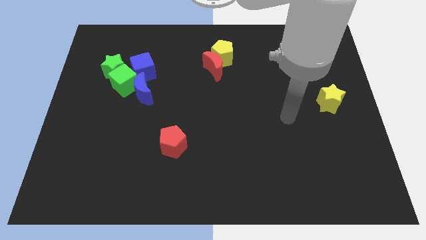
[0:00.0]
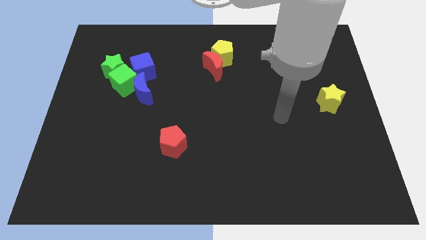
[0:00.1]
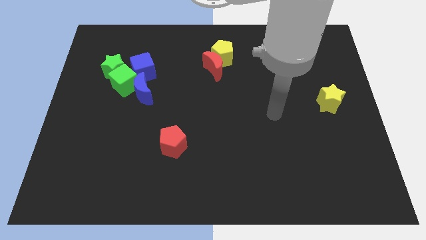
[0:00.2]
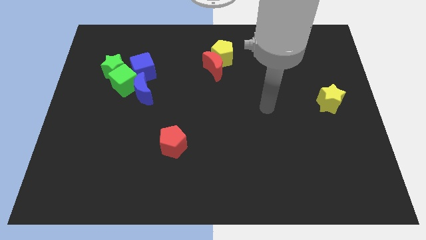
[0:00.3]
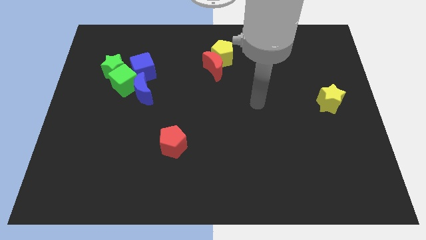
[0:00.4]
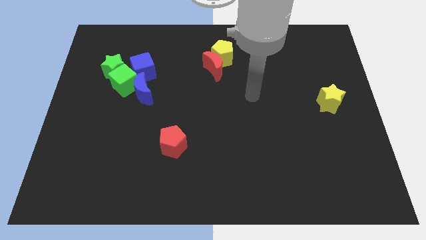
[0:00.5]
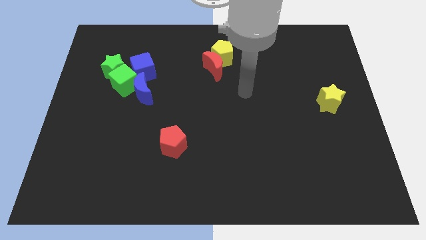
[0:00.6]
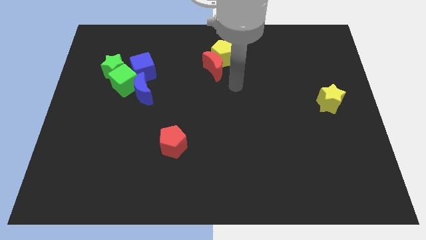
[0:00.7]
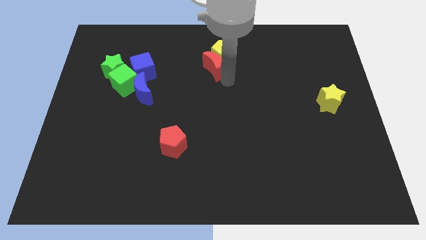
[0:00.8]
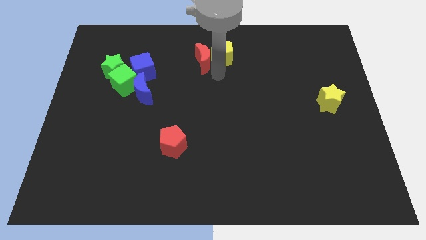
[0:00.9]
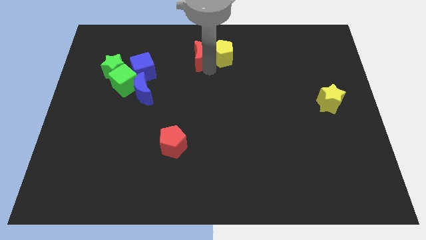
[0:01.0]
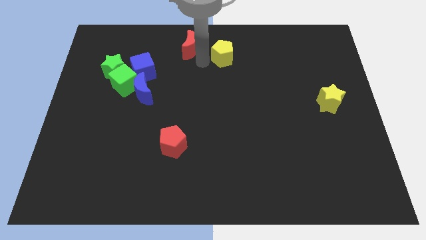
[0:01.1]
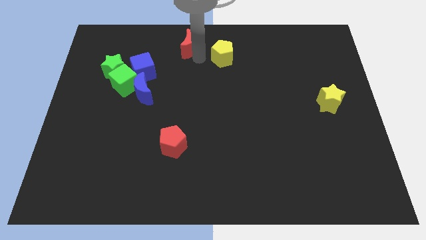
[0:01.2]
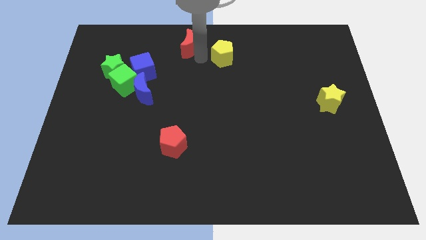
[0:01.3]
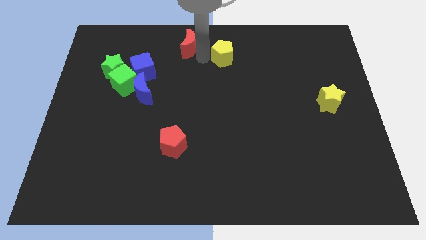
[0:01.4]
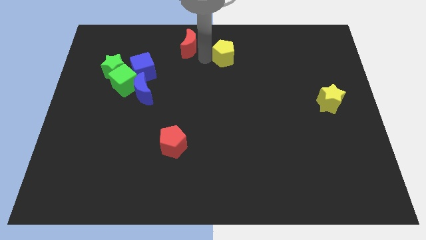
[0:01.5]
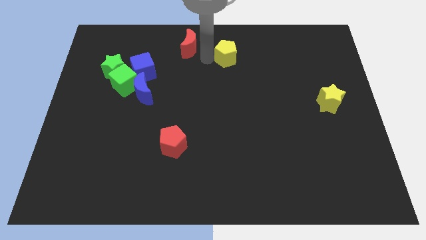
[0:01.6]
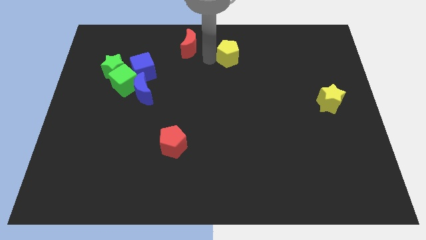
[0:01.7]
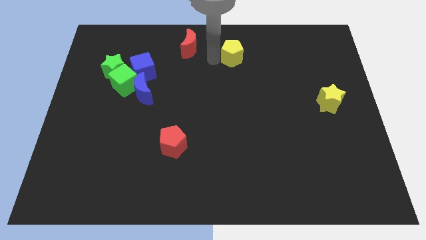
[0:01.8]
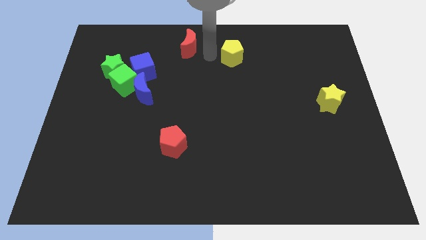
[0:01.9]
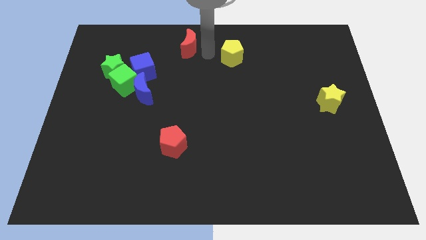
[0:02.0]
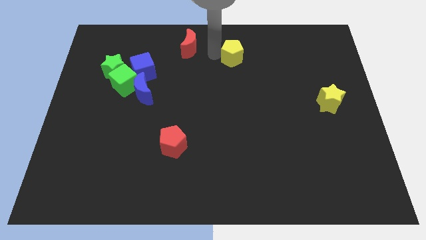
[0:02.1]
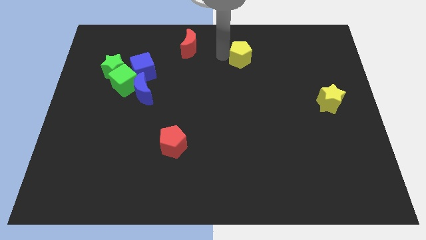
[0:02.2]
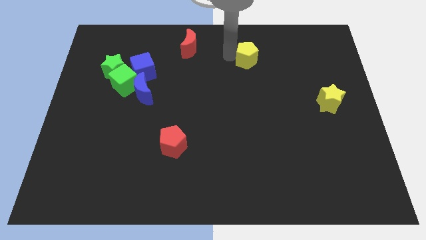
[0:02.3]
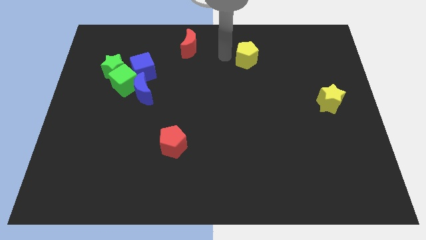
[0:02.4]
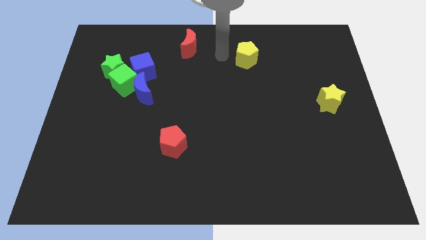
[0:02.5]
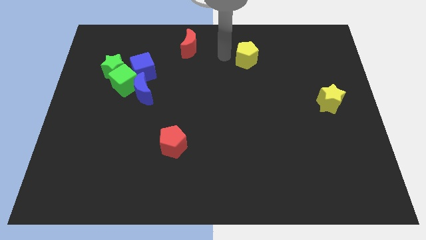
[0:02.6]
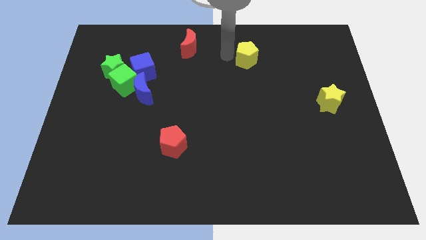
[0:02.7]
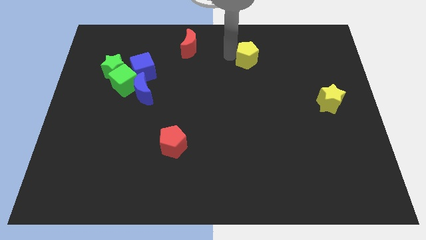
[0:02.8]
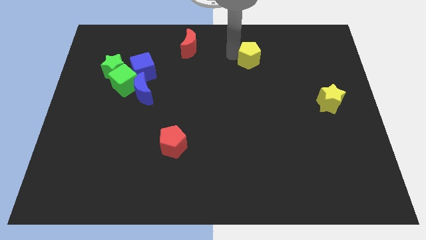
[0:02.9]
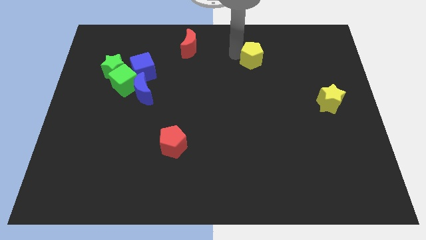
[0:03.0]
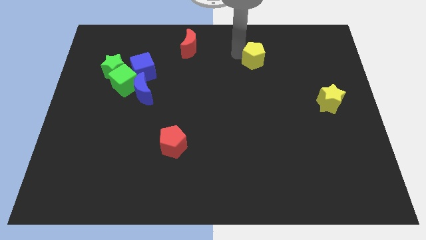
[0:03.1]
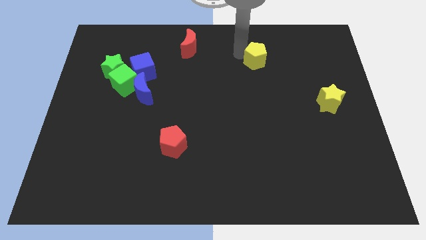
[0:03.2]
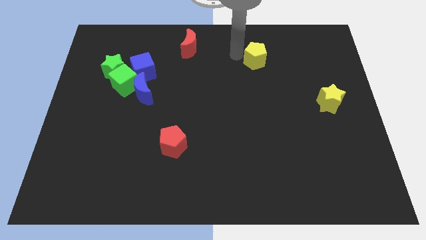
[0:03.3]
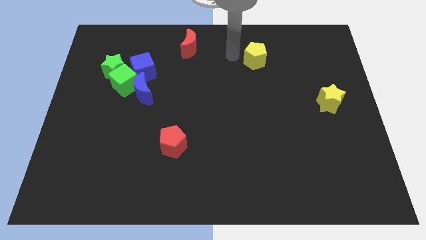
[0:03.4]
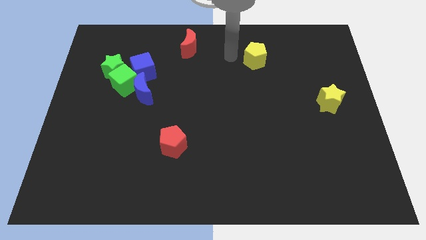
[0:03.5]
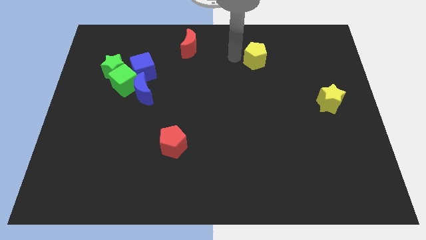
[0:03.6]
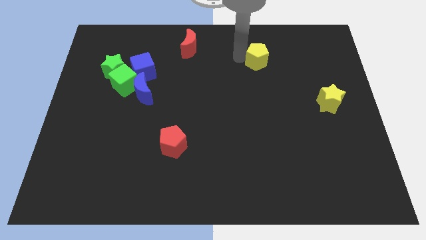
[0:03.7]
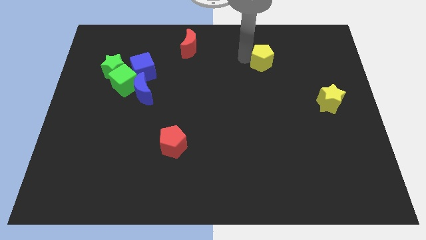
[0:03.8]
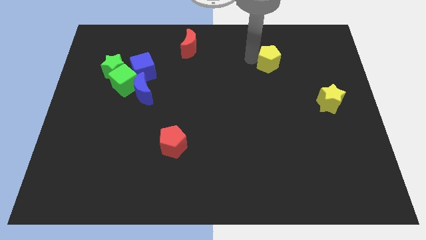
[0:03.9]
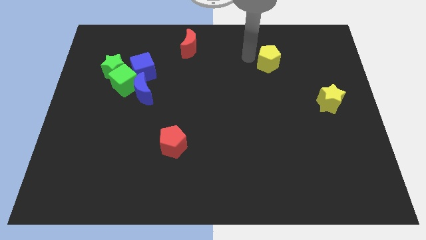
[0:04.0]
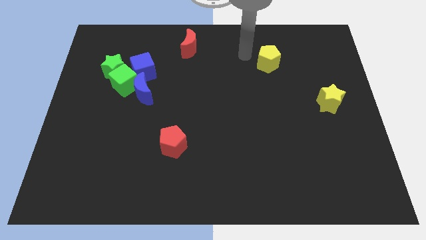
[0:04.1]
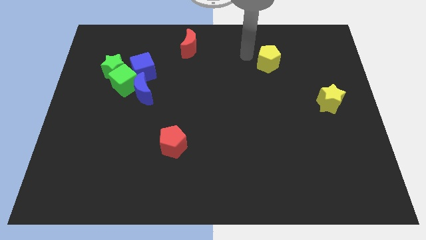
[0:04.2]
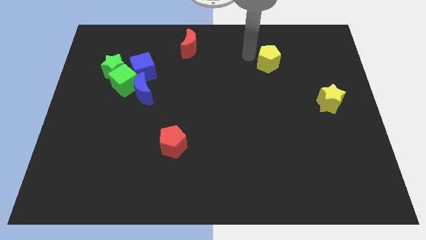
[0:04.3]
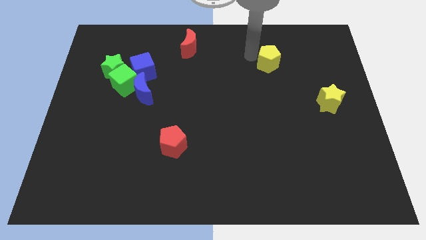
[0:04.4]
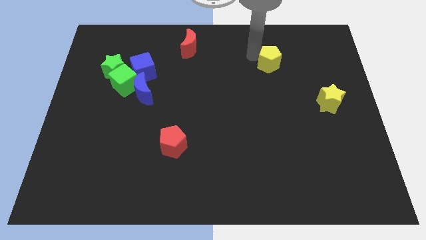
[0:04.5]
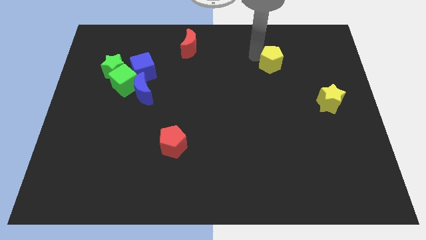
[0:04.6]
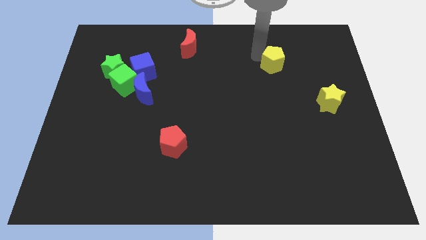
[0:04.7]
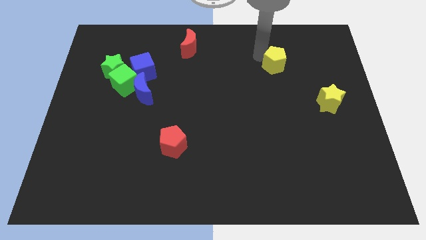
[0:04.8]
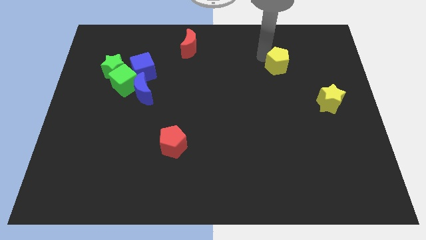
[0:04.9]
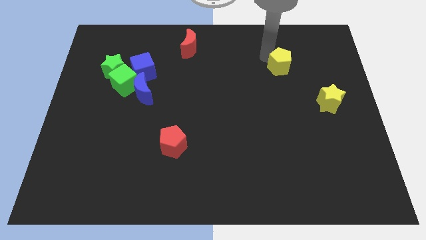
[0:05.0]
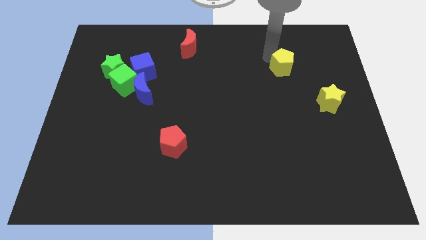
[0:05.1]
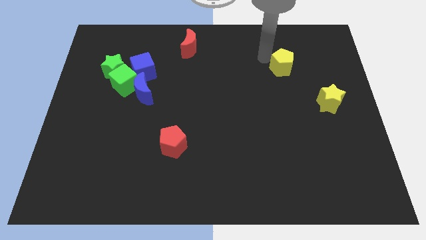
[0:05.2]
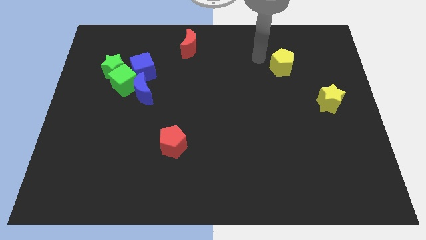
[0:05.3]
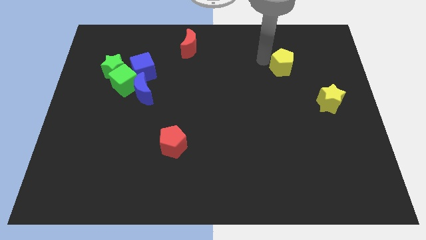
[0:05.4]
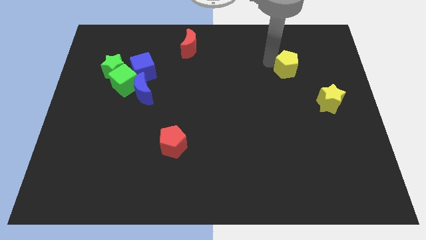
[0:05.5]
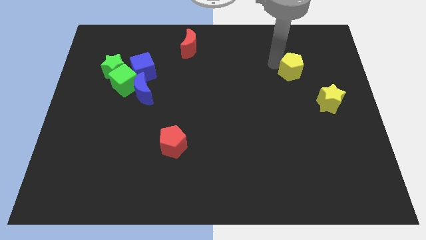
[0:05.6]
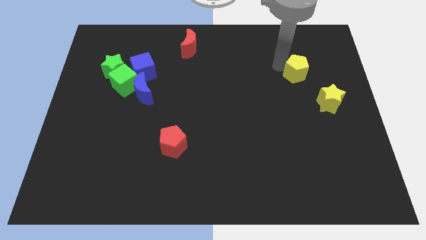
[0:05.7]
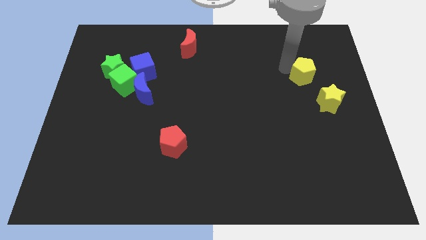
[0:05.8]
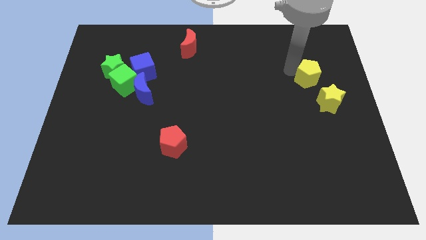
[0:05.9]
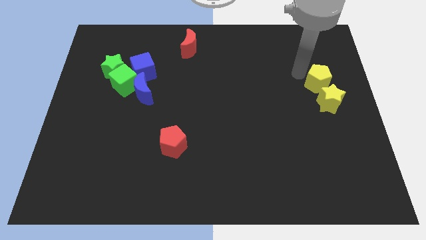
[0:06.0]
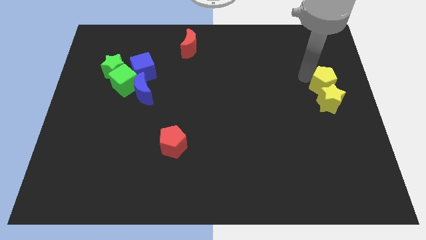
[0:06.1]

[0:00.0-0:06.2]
put the yellow pentagon to the center right
